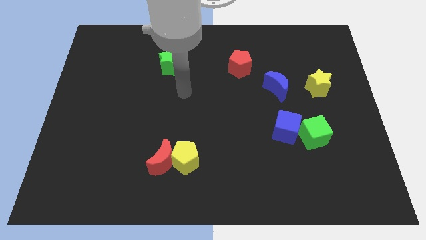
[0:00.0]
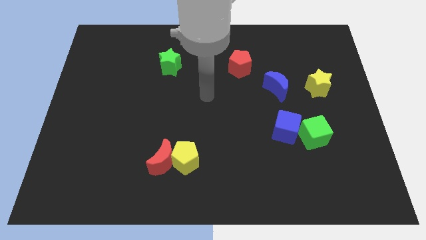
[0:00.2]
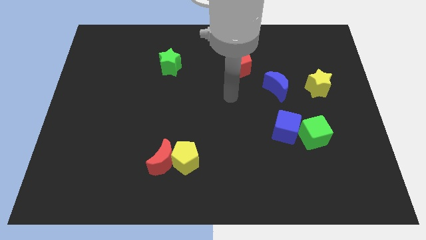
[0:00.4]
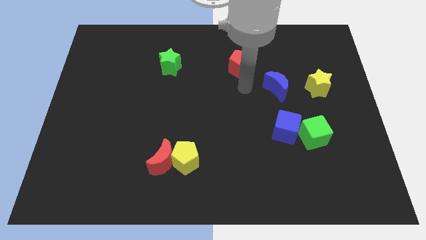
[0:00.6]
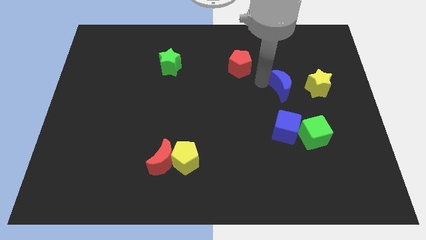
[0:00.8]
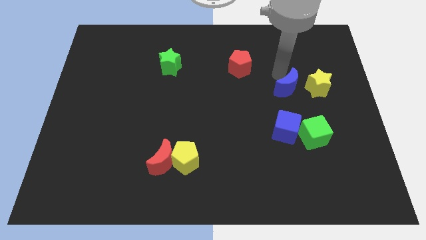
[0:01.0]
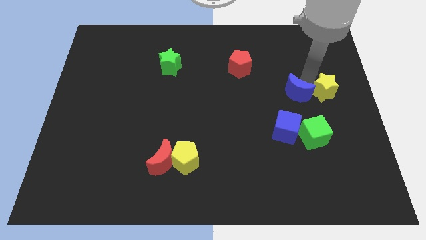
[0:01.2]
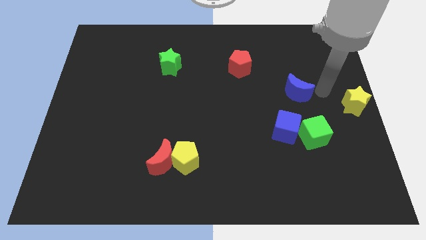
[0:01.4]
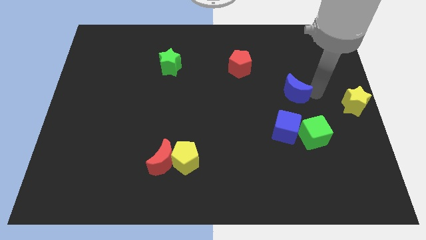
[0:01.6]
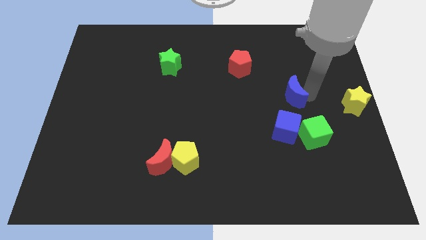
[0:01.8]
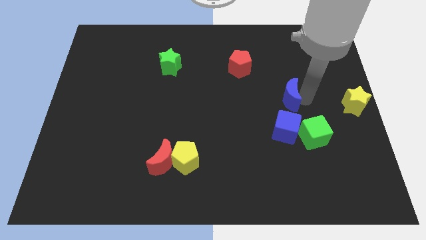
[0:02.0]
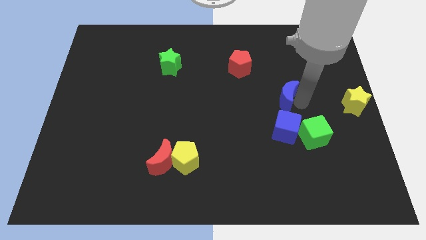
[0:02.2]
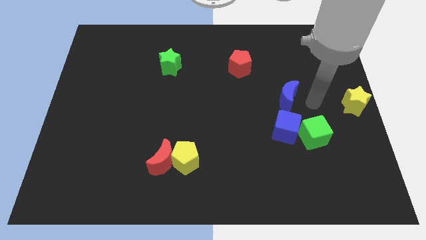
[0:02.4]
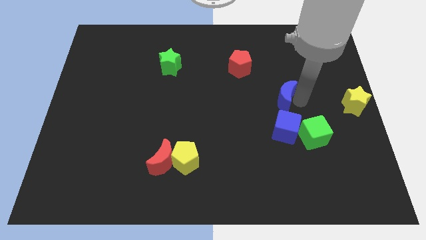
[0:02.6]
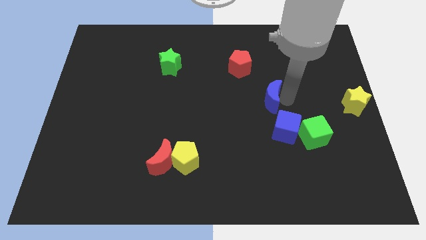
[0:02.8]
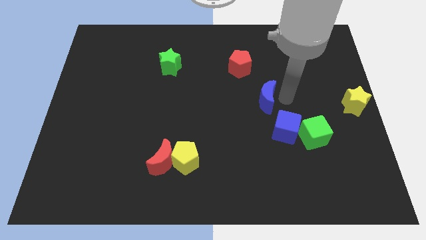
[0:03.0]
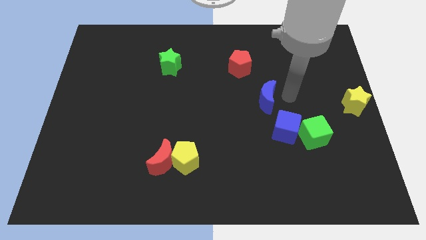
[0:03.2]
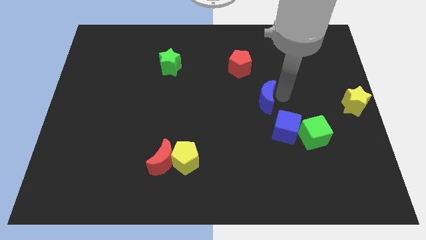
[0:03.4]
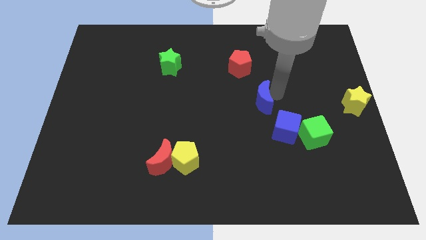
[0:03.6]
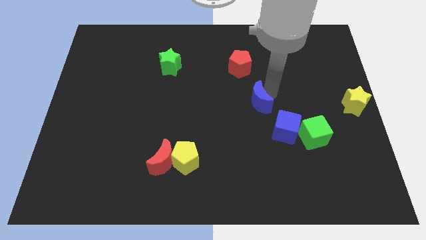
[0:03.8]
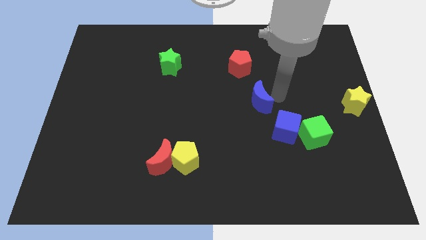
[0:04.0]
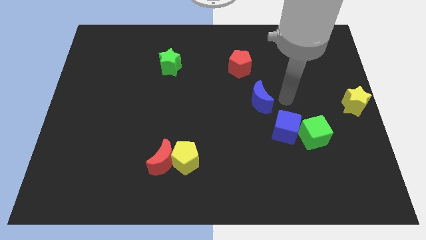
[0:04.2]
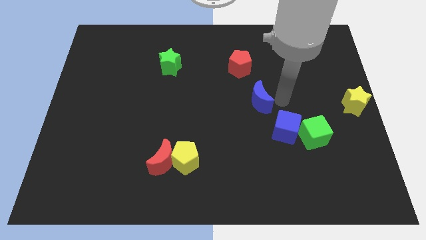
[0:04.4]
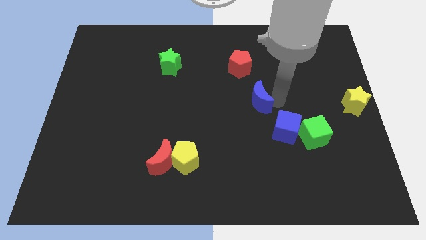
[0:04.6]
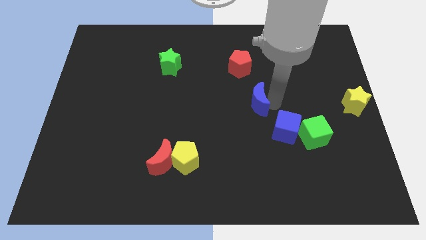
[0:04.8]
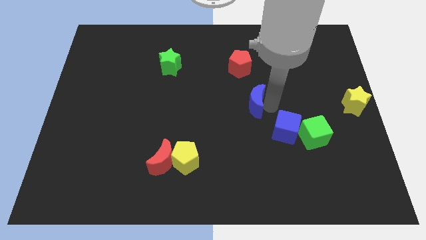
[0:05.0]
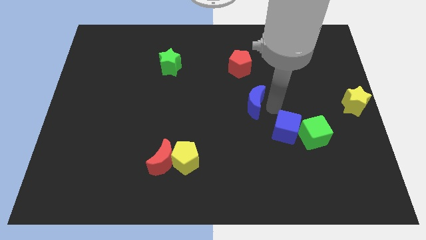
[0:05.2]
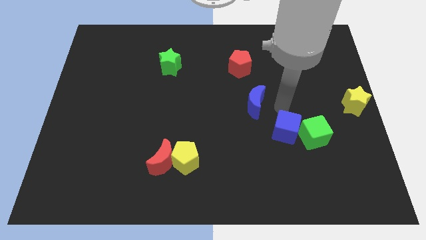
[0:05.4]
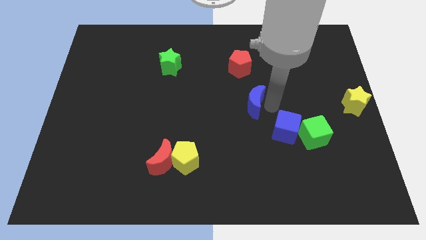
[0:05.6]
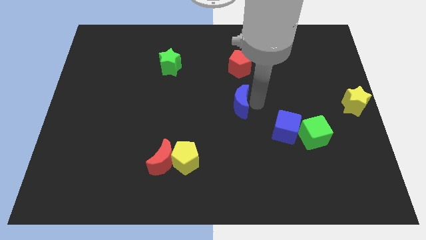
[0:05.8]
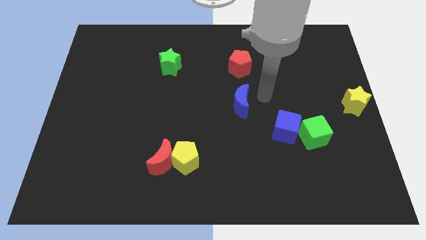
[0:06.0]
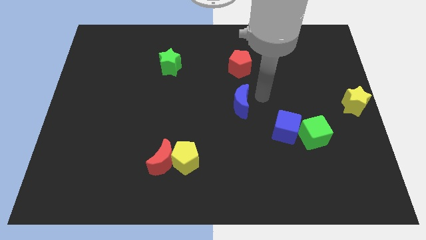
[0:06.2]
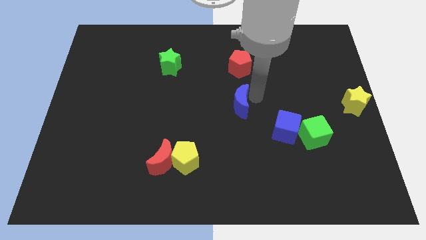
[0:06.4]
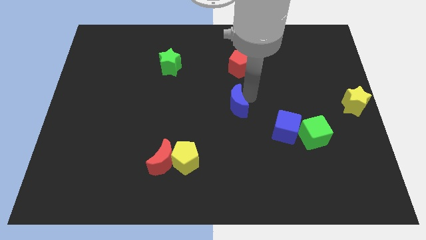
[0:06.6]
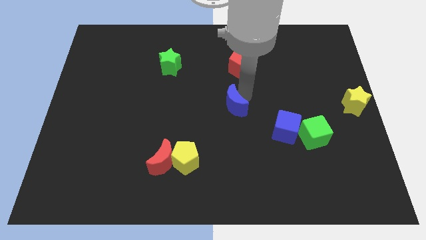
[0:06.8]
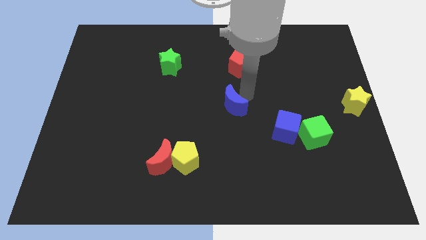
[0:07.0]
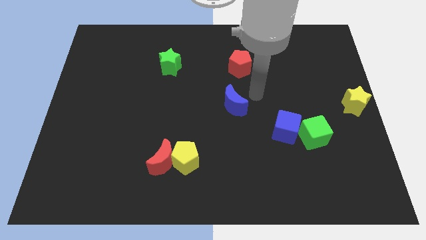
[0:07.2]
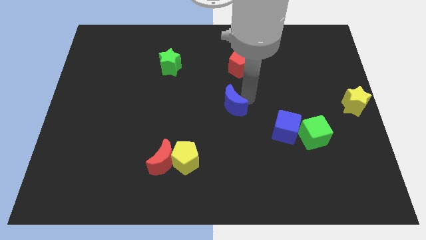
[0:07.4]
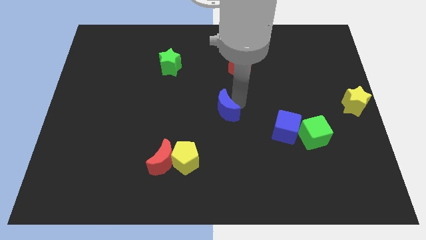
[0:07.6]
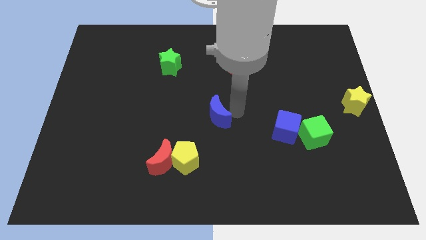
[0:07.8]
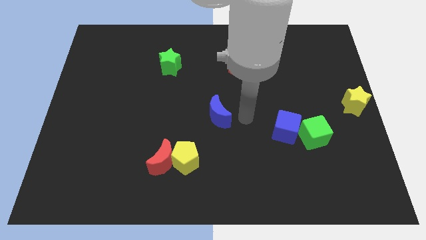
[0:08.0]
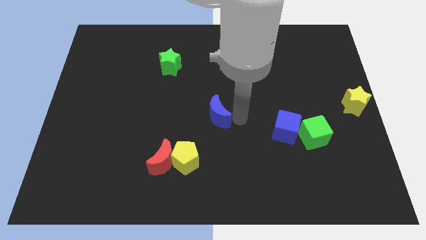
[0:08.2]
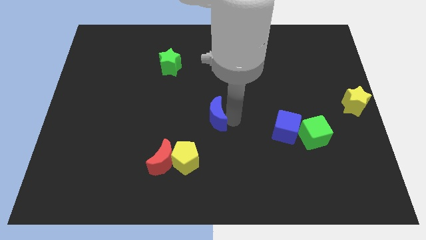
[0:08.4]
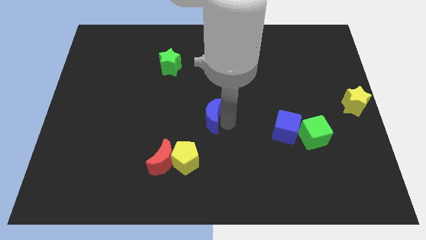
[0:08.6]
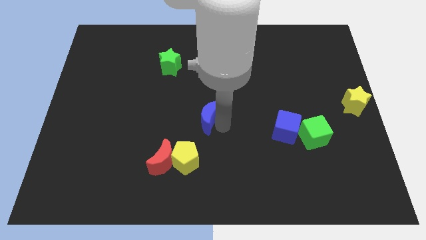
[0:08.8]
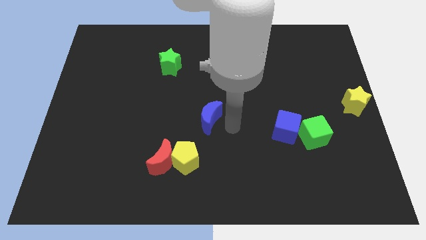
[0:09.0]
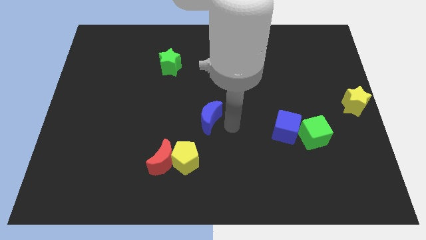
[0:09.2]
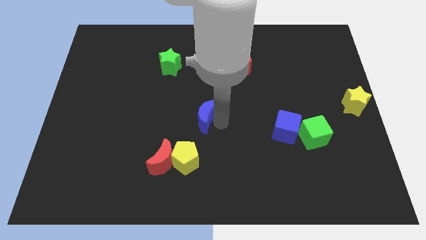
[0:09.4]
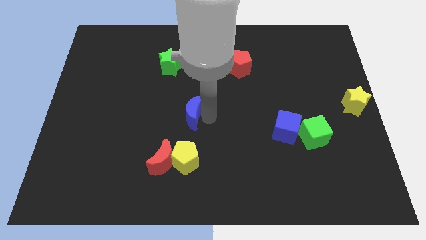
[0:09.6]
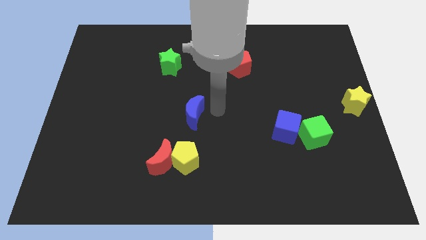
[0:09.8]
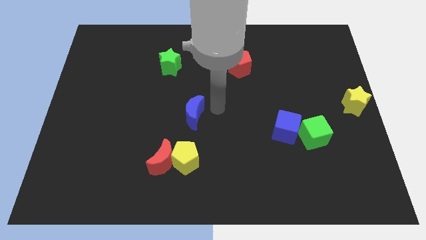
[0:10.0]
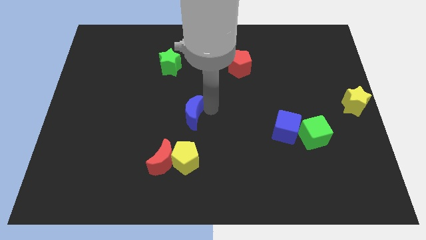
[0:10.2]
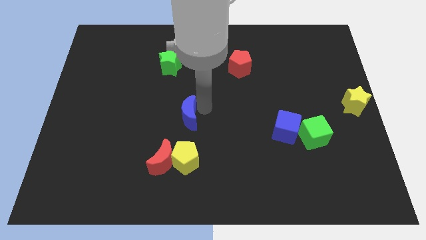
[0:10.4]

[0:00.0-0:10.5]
slide the blue moon above the red moon

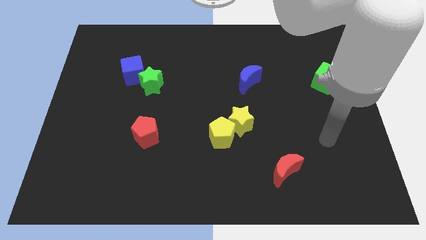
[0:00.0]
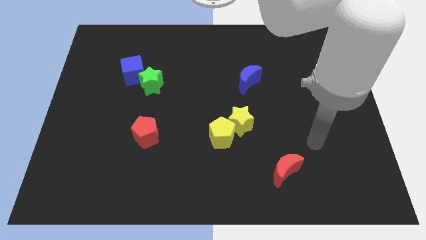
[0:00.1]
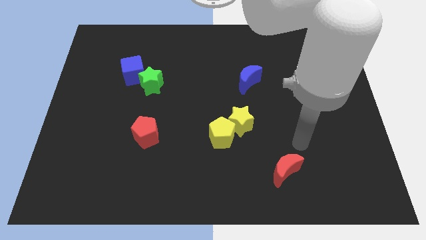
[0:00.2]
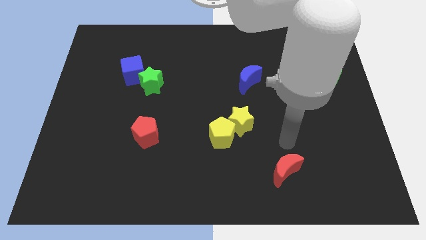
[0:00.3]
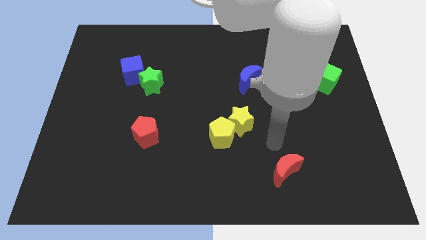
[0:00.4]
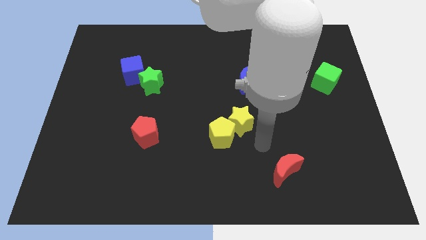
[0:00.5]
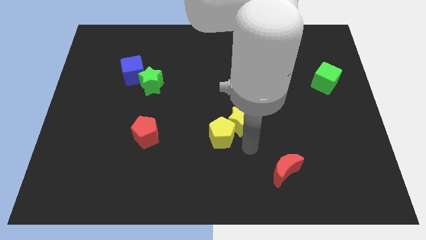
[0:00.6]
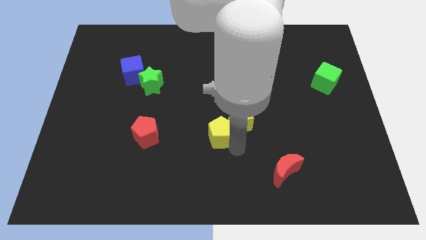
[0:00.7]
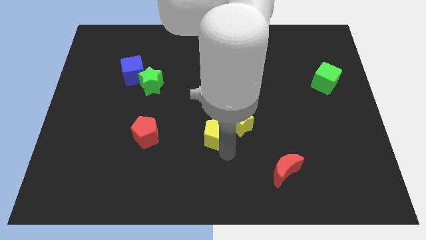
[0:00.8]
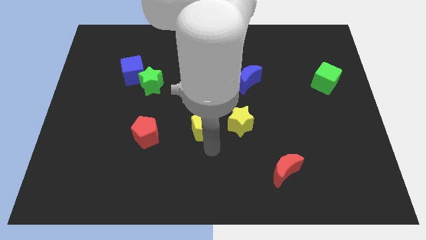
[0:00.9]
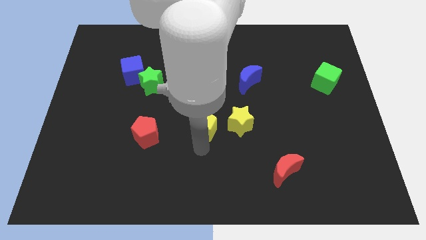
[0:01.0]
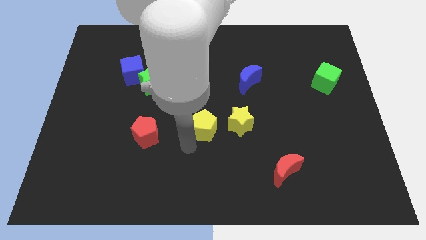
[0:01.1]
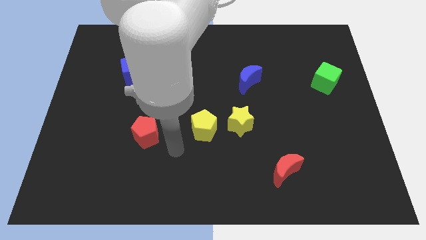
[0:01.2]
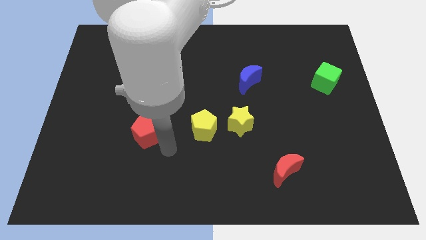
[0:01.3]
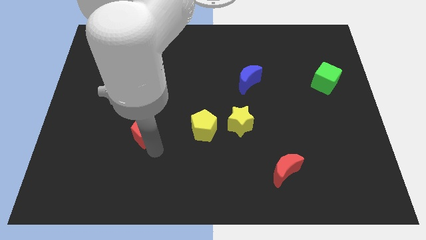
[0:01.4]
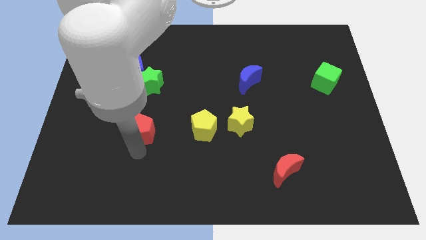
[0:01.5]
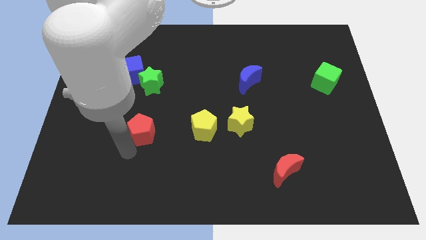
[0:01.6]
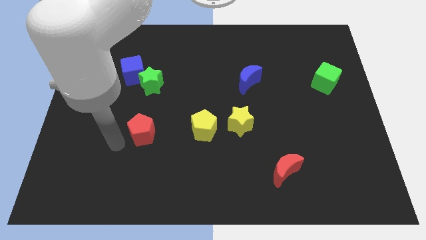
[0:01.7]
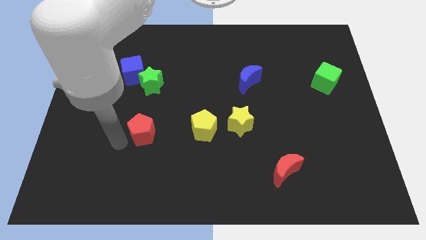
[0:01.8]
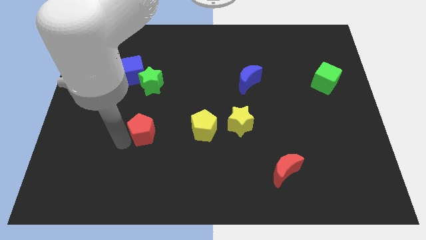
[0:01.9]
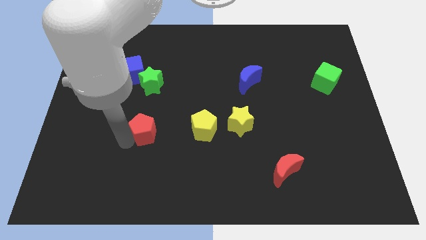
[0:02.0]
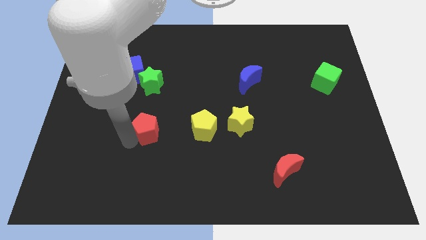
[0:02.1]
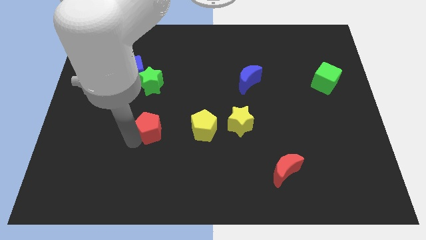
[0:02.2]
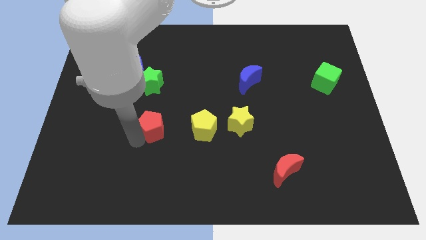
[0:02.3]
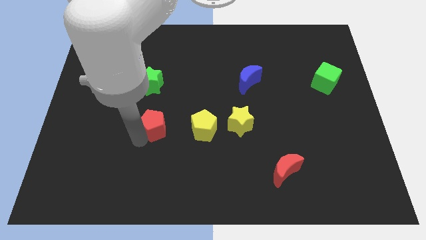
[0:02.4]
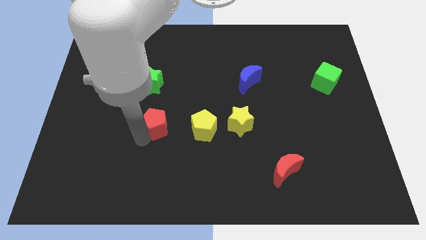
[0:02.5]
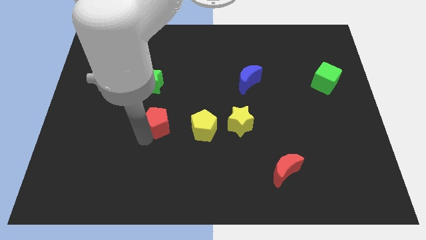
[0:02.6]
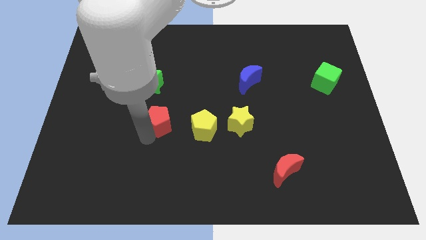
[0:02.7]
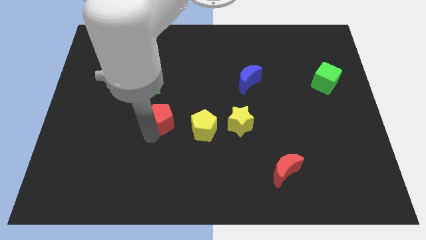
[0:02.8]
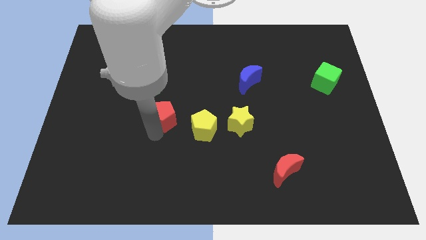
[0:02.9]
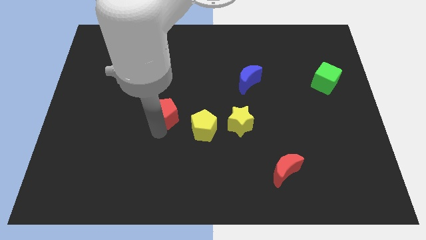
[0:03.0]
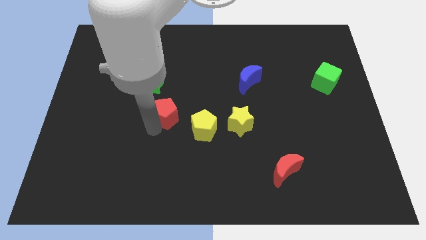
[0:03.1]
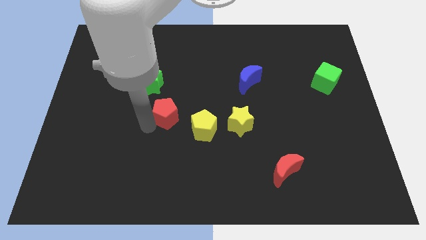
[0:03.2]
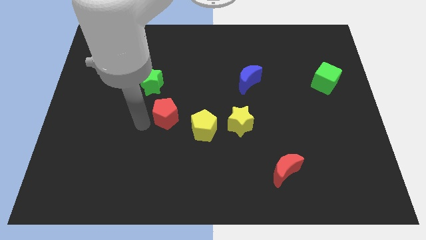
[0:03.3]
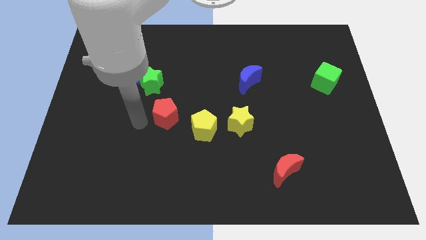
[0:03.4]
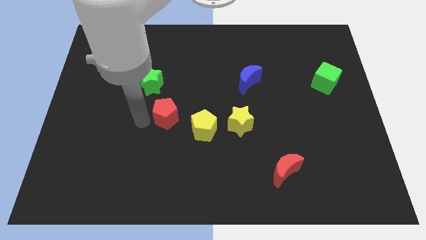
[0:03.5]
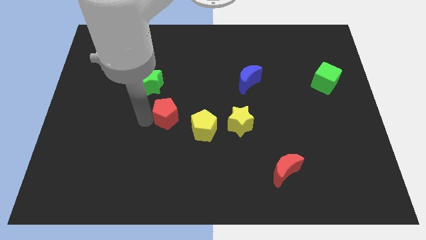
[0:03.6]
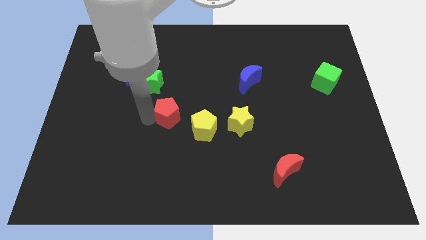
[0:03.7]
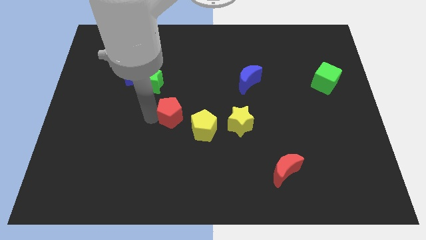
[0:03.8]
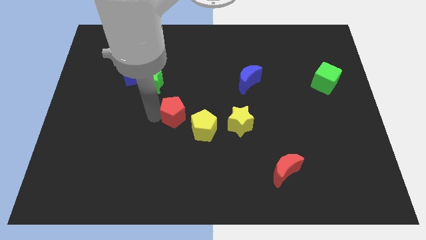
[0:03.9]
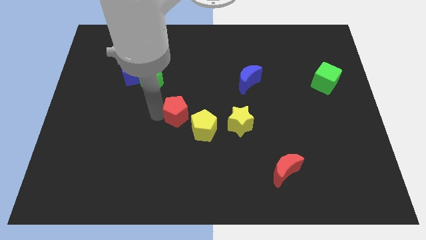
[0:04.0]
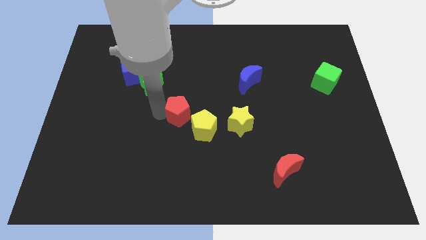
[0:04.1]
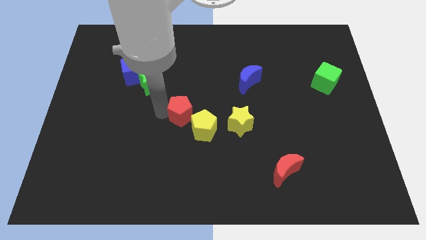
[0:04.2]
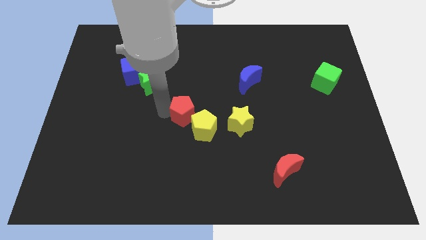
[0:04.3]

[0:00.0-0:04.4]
slide the red pentagon to the top of the yellow pentagon
